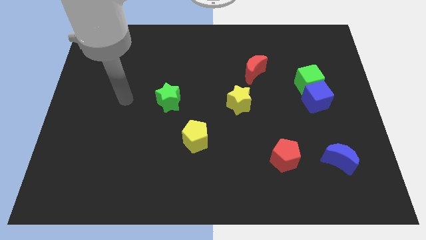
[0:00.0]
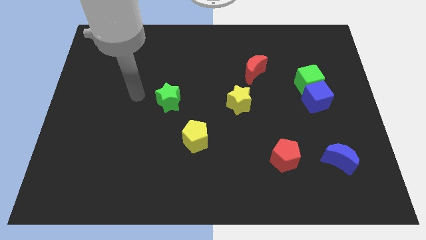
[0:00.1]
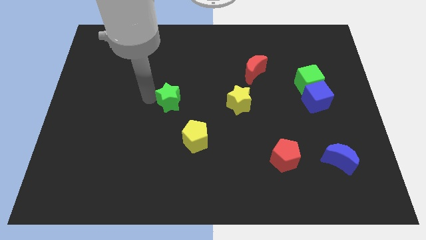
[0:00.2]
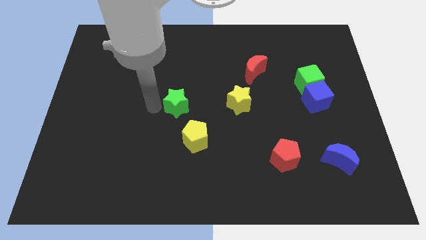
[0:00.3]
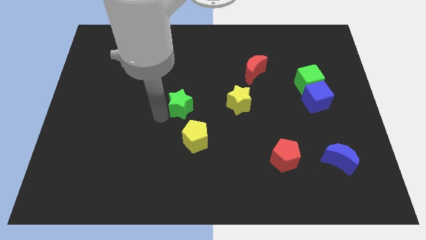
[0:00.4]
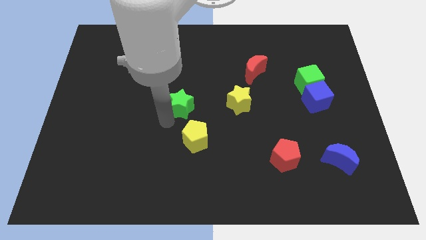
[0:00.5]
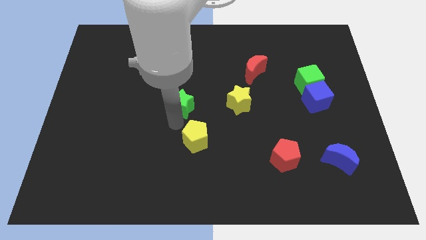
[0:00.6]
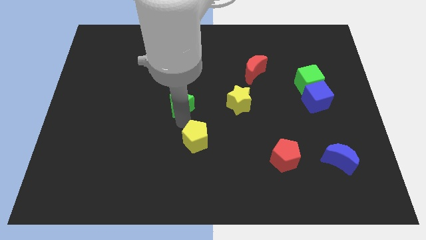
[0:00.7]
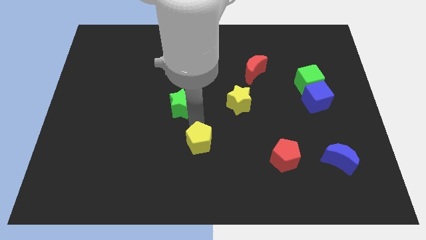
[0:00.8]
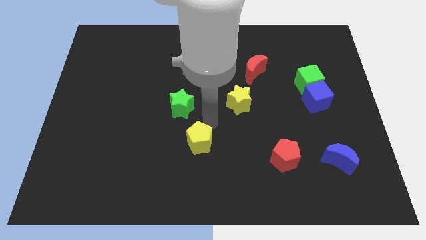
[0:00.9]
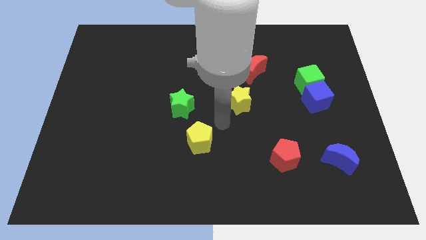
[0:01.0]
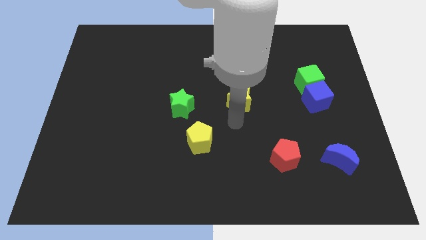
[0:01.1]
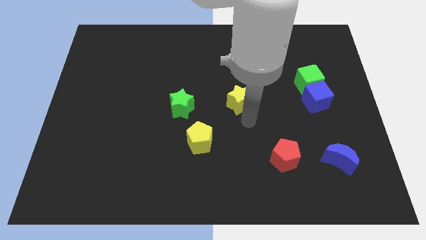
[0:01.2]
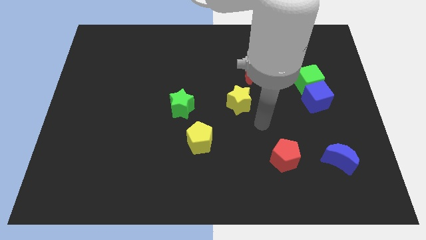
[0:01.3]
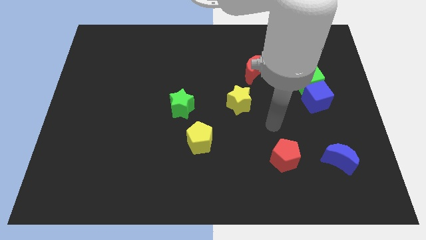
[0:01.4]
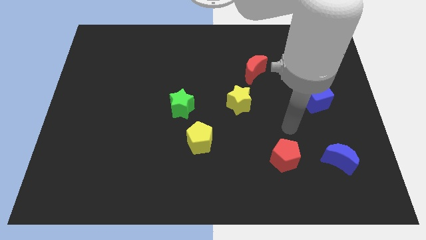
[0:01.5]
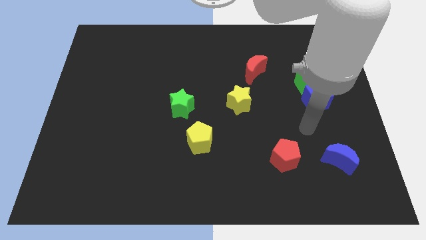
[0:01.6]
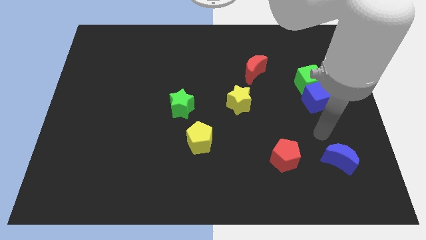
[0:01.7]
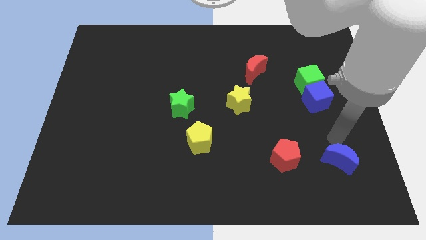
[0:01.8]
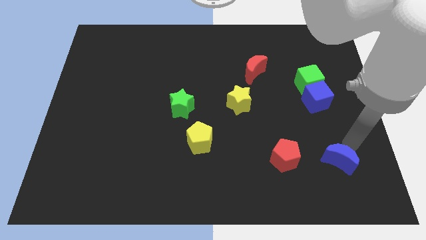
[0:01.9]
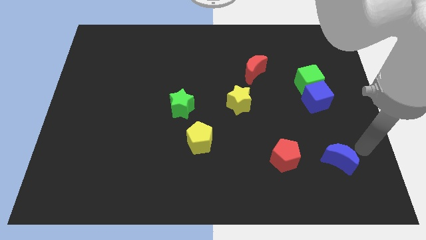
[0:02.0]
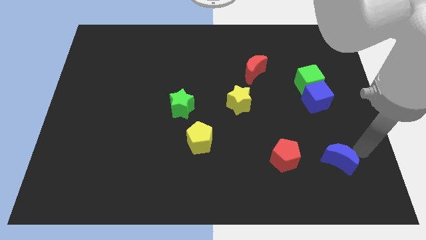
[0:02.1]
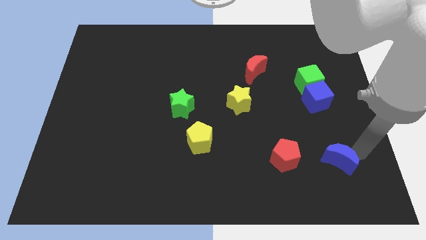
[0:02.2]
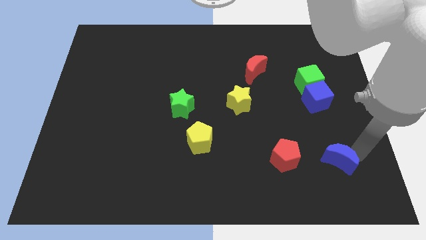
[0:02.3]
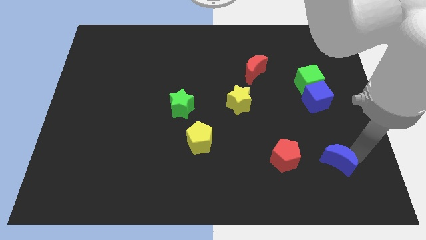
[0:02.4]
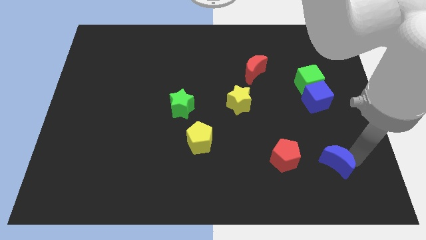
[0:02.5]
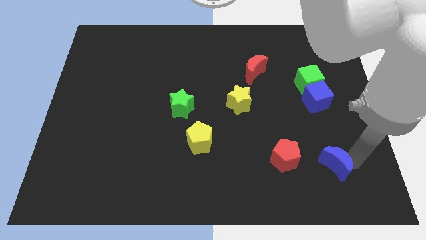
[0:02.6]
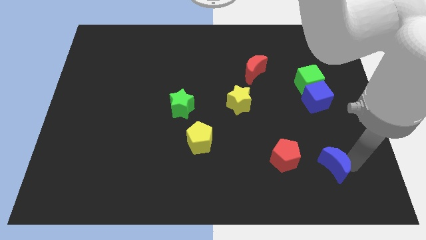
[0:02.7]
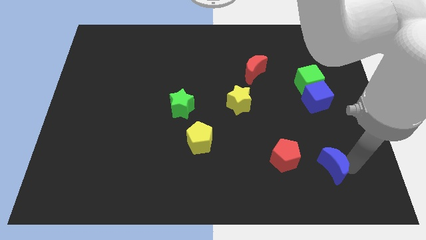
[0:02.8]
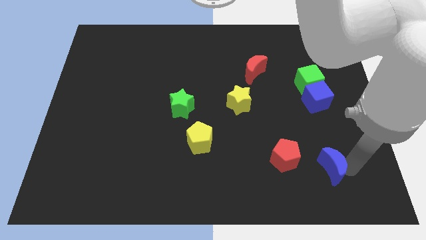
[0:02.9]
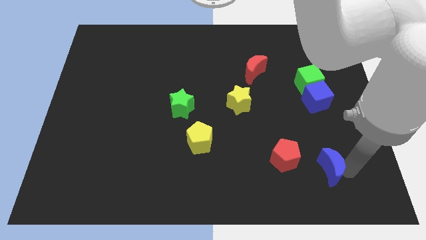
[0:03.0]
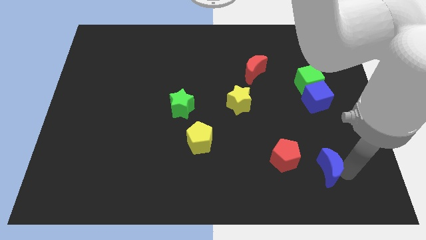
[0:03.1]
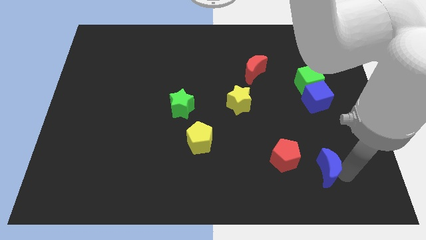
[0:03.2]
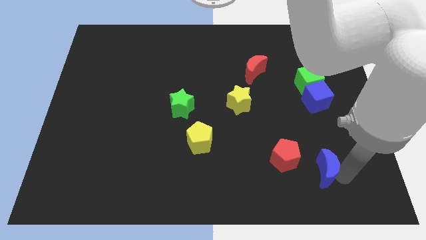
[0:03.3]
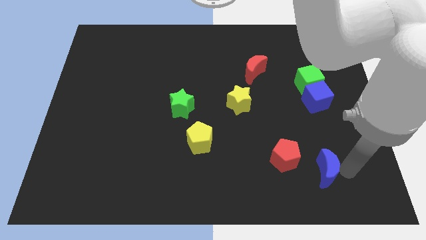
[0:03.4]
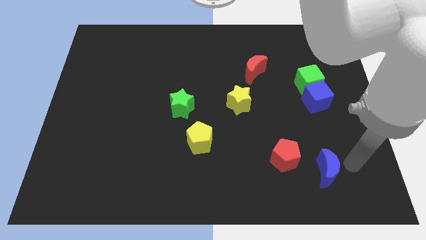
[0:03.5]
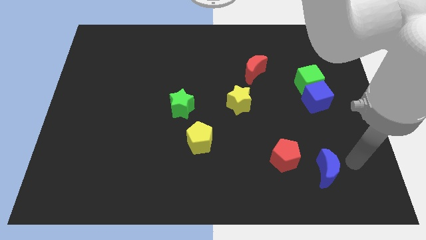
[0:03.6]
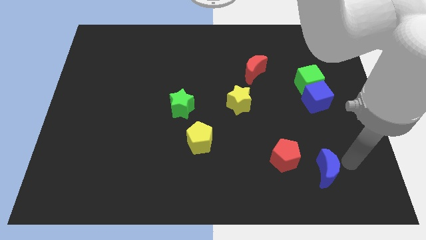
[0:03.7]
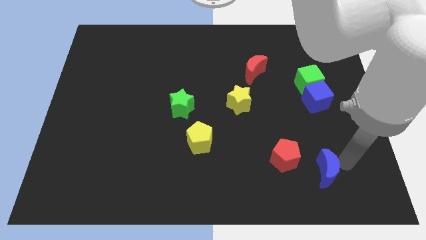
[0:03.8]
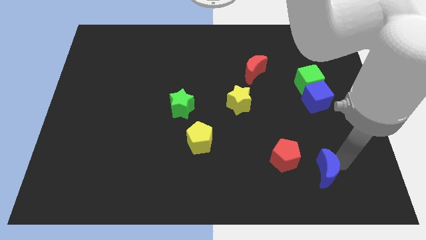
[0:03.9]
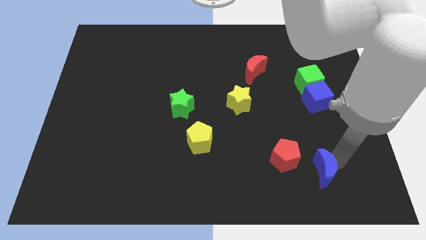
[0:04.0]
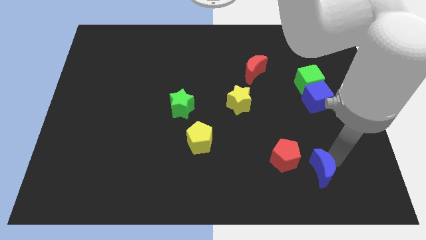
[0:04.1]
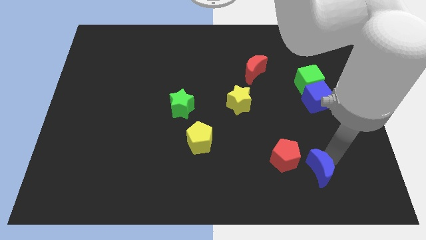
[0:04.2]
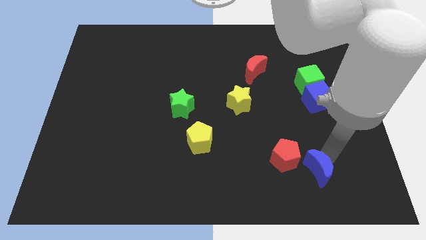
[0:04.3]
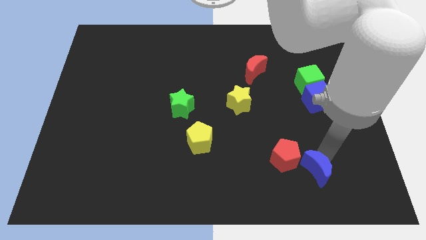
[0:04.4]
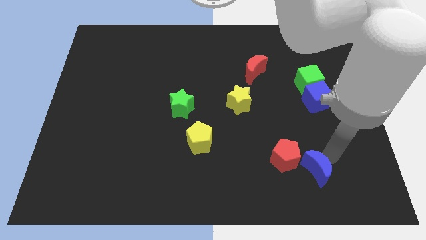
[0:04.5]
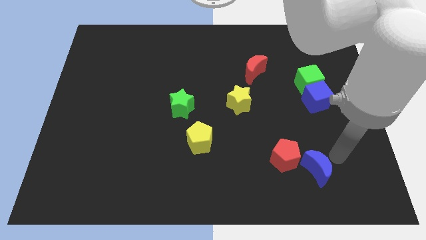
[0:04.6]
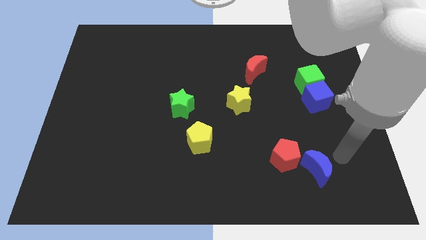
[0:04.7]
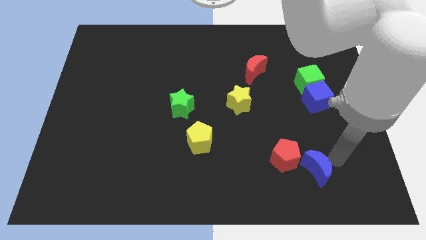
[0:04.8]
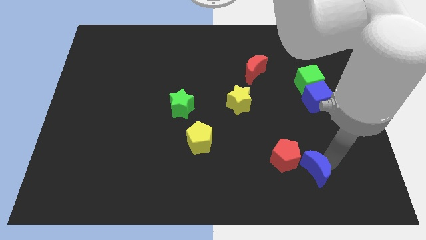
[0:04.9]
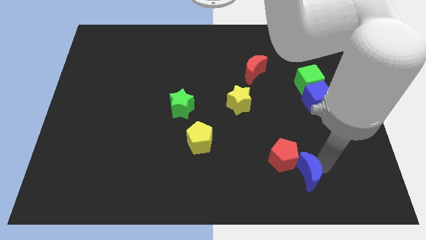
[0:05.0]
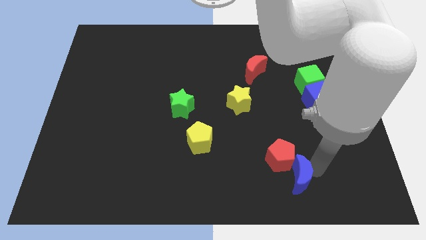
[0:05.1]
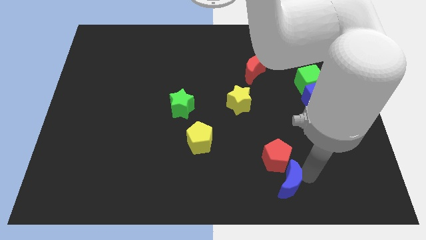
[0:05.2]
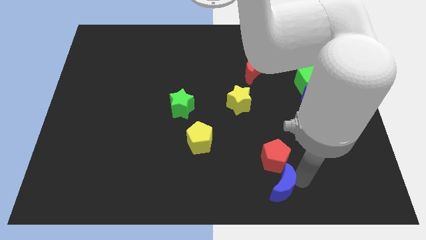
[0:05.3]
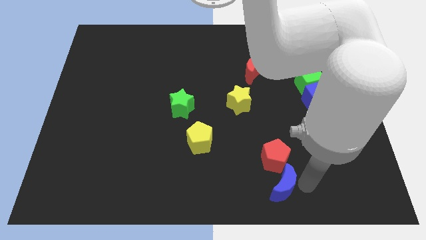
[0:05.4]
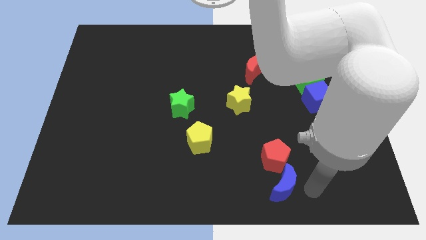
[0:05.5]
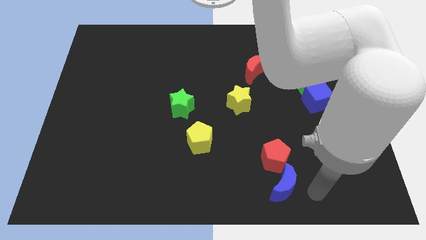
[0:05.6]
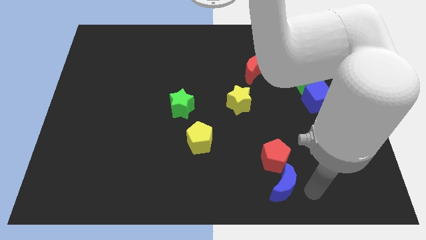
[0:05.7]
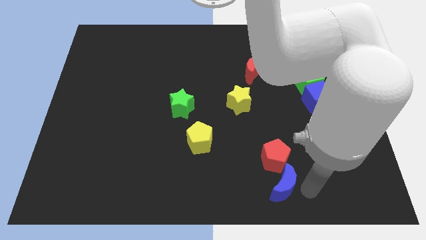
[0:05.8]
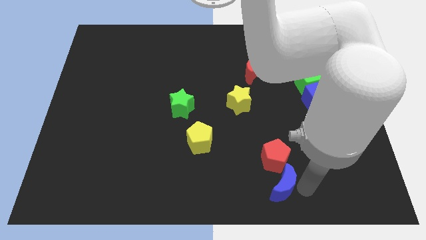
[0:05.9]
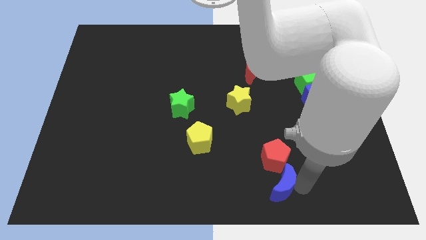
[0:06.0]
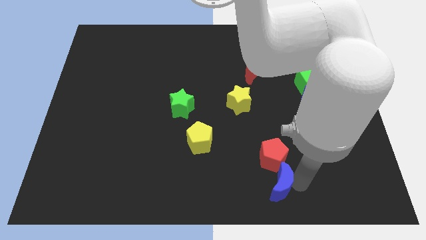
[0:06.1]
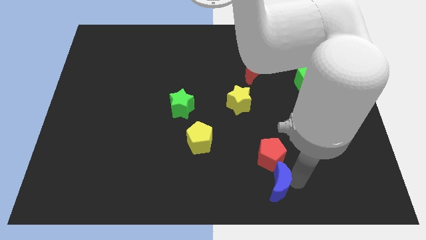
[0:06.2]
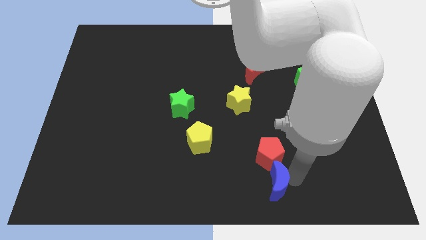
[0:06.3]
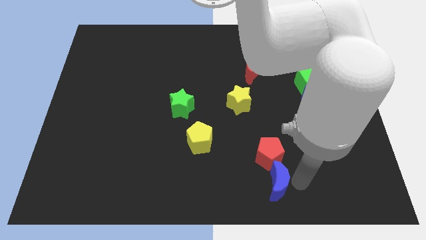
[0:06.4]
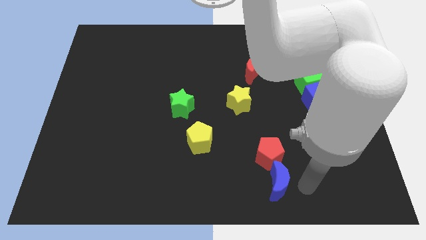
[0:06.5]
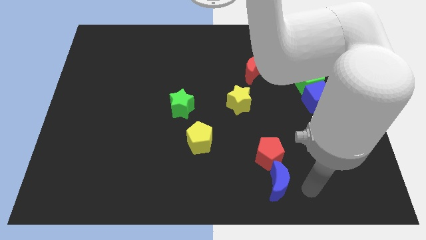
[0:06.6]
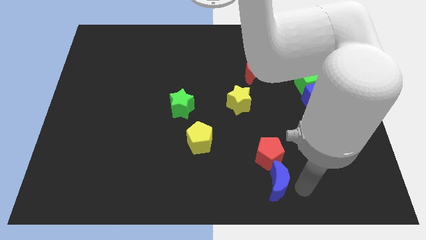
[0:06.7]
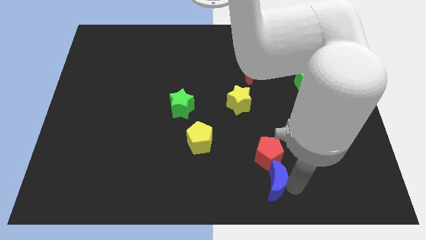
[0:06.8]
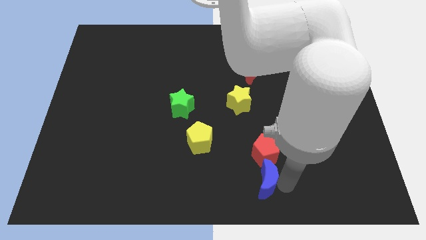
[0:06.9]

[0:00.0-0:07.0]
move the blue moon to the bottom left of the red pentagon
